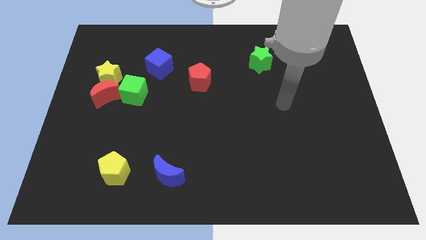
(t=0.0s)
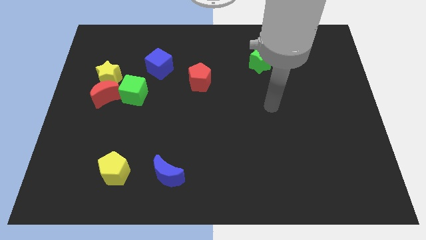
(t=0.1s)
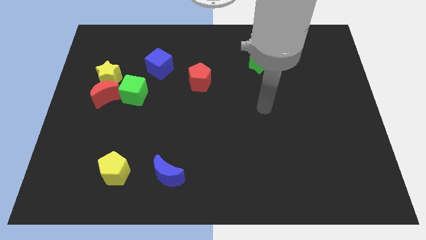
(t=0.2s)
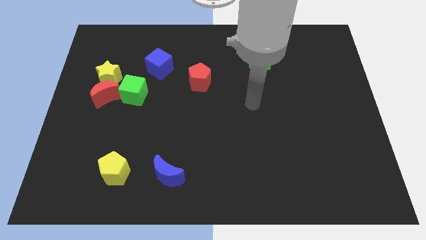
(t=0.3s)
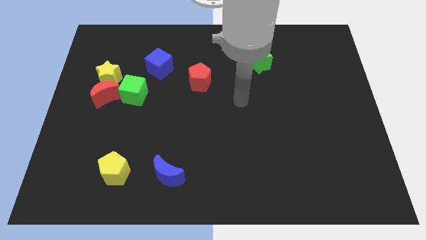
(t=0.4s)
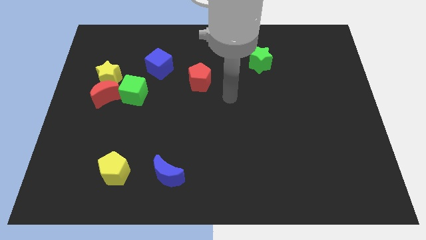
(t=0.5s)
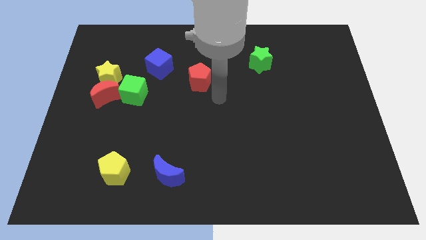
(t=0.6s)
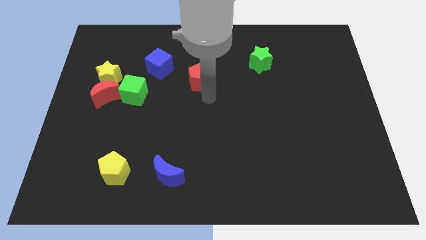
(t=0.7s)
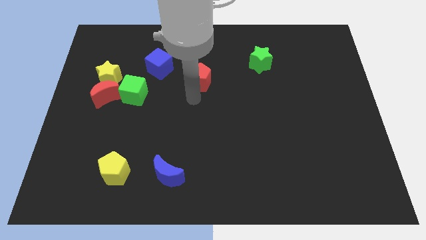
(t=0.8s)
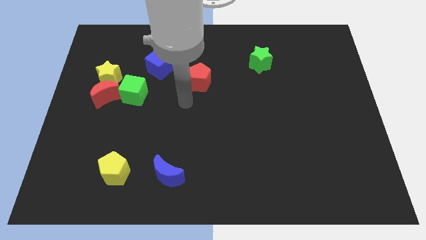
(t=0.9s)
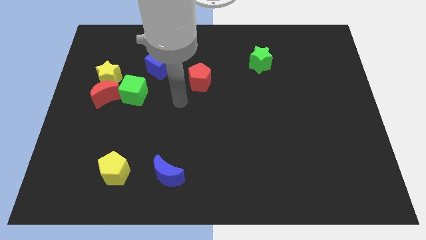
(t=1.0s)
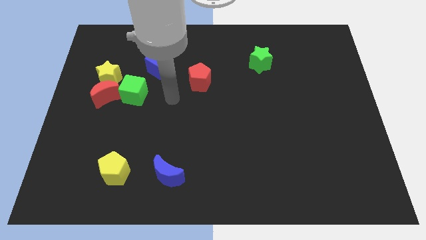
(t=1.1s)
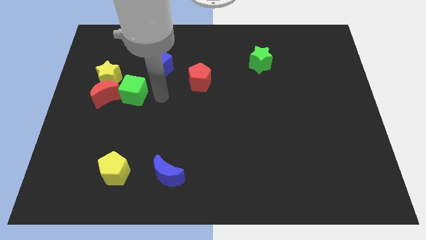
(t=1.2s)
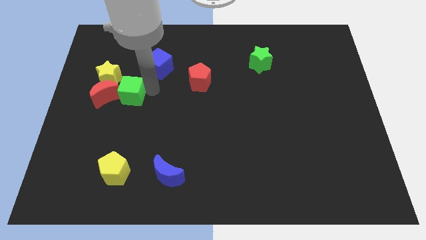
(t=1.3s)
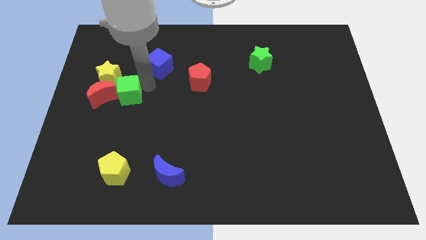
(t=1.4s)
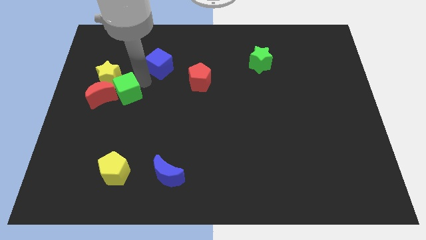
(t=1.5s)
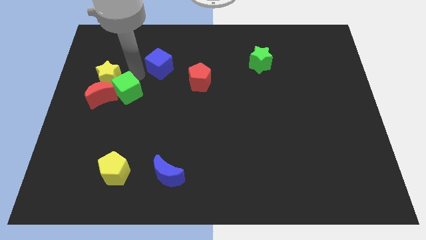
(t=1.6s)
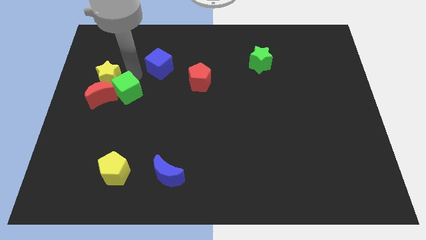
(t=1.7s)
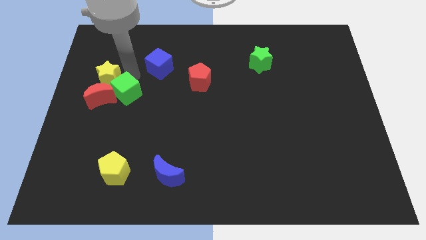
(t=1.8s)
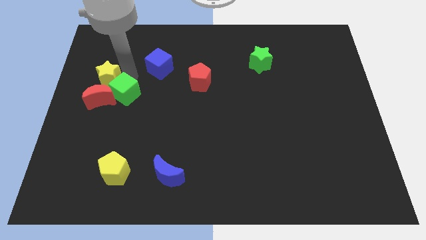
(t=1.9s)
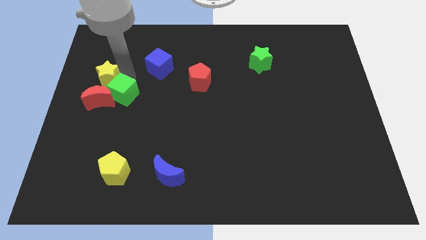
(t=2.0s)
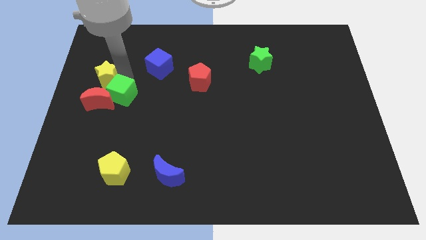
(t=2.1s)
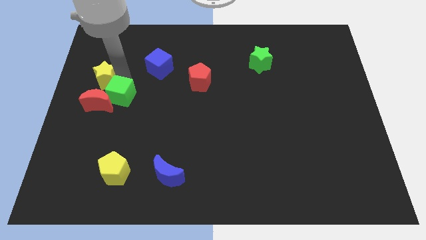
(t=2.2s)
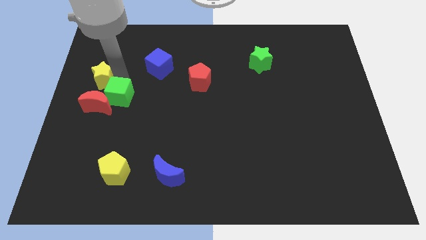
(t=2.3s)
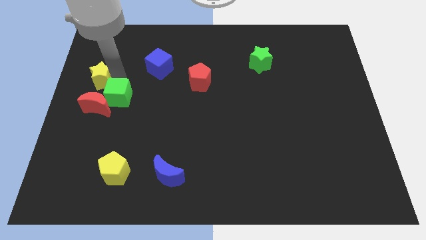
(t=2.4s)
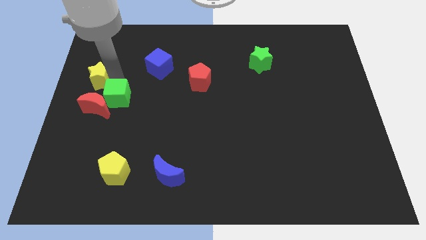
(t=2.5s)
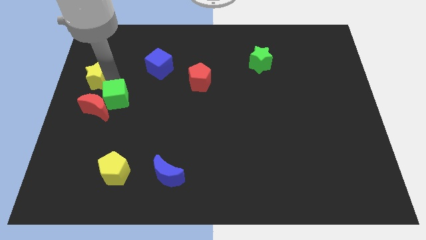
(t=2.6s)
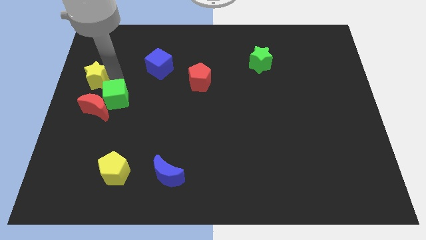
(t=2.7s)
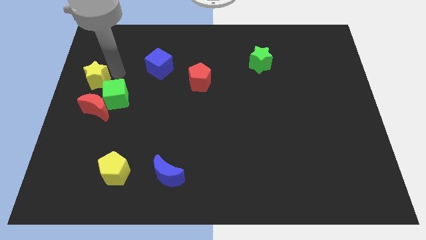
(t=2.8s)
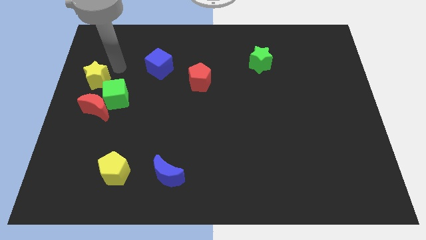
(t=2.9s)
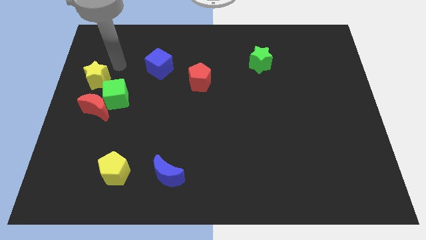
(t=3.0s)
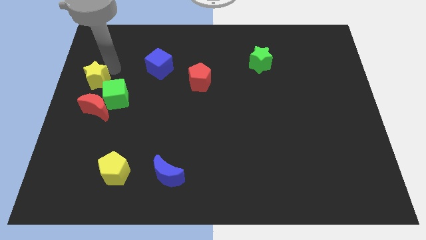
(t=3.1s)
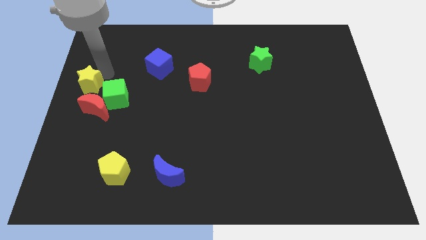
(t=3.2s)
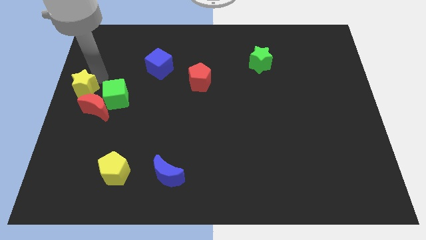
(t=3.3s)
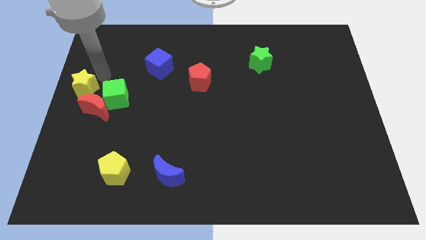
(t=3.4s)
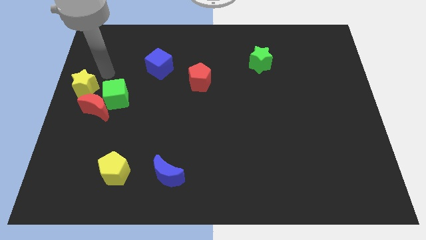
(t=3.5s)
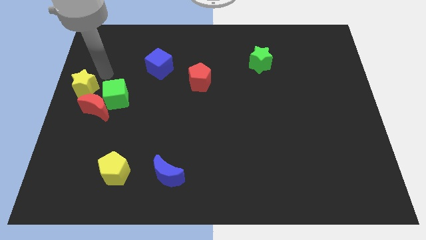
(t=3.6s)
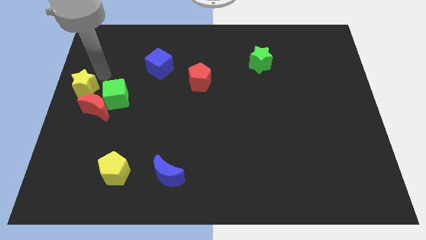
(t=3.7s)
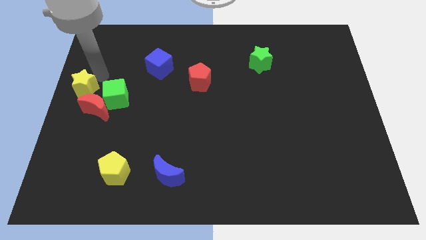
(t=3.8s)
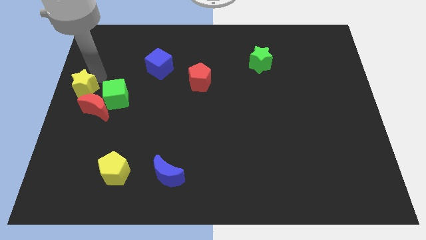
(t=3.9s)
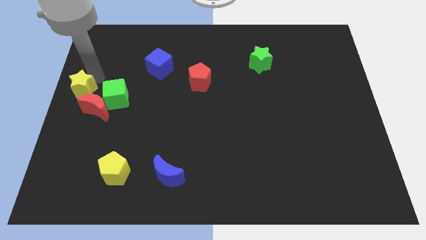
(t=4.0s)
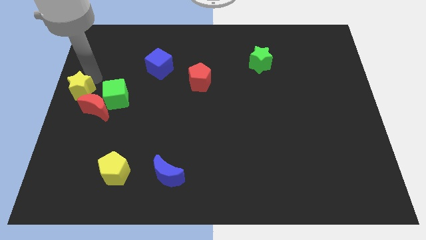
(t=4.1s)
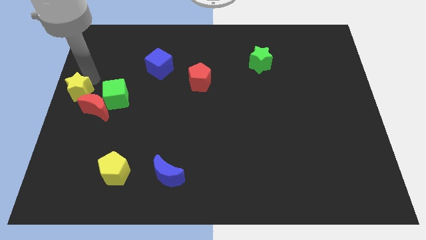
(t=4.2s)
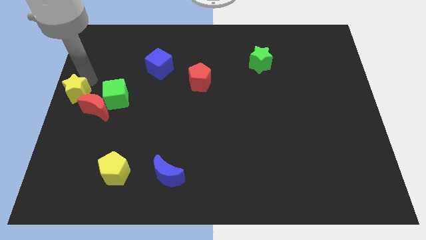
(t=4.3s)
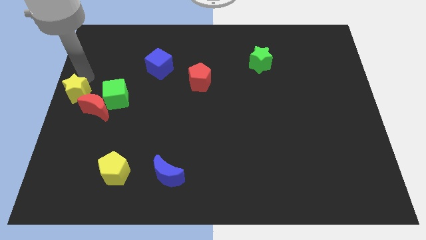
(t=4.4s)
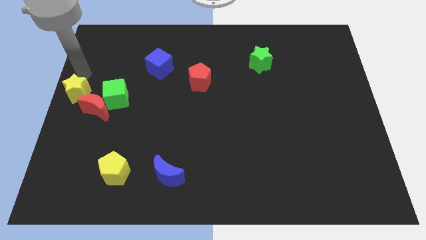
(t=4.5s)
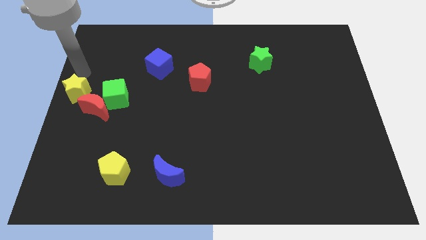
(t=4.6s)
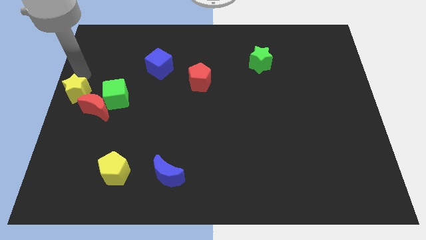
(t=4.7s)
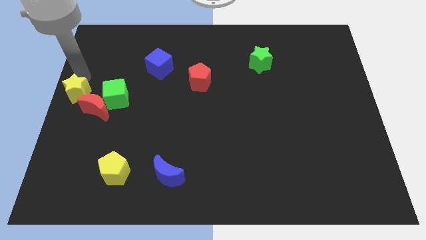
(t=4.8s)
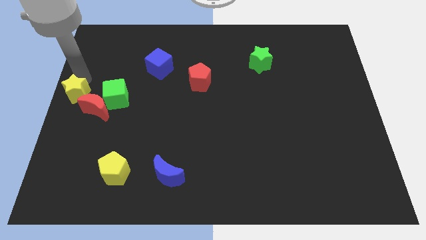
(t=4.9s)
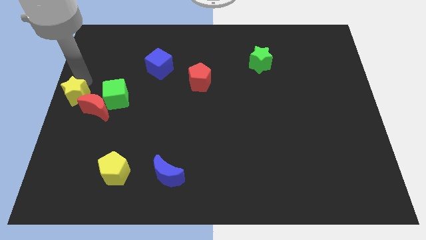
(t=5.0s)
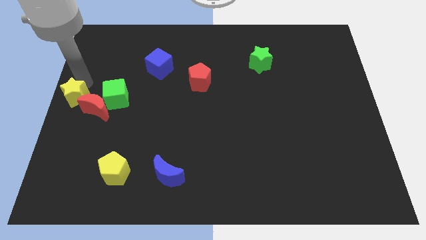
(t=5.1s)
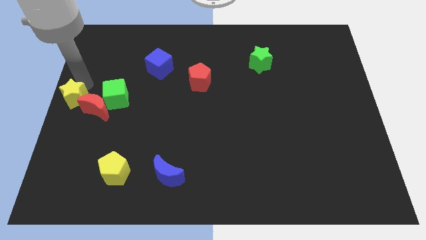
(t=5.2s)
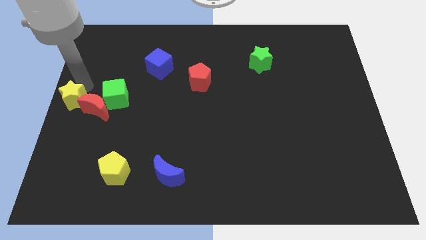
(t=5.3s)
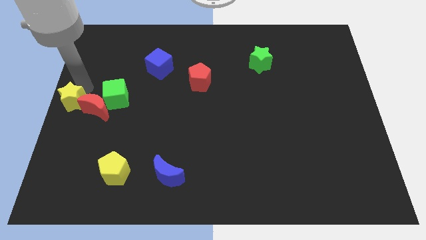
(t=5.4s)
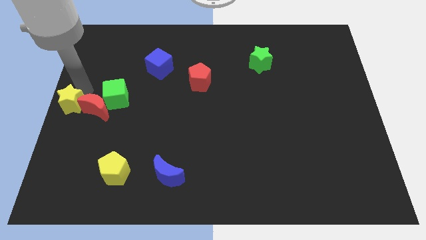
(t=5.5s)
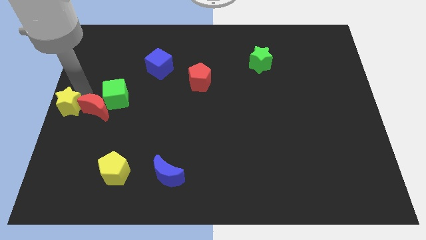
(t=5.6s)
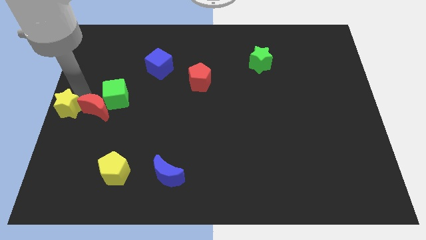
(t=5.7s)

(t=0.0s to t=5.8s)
slide the yellow star down slightly

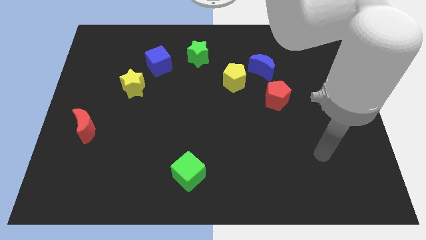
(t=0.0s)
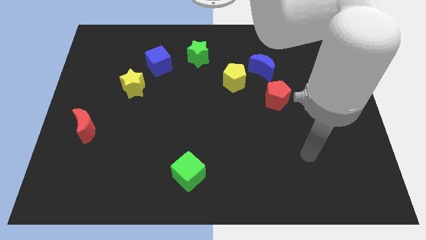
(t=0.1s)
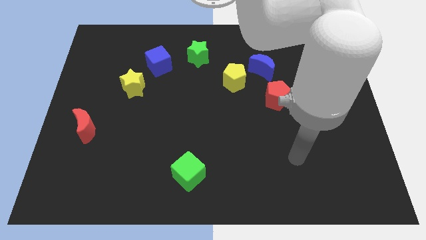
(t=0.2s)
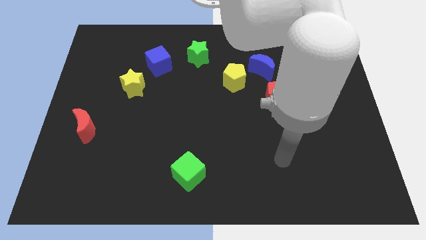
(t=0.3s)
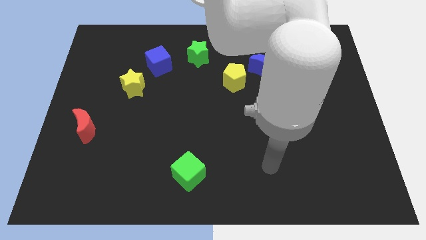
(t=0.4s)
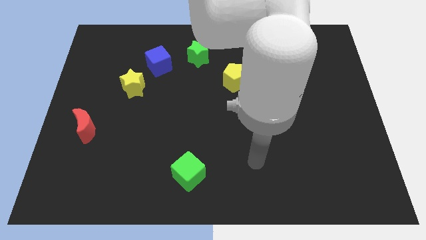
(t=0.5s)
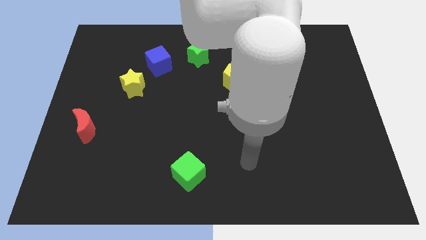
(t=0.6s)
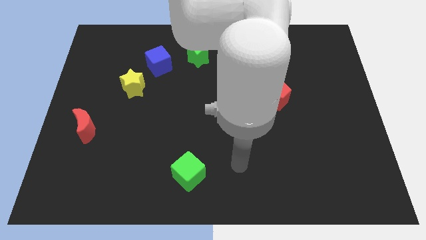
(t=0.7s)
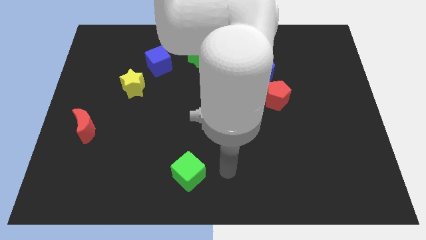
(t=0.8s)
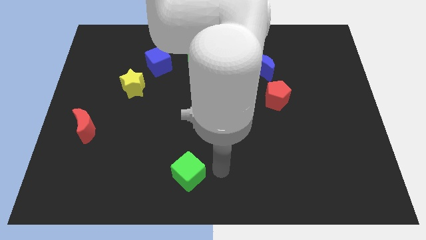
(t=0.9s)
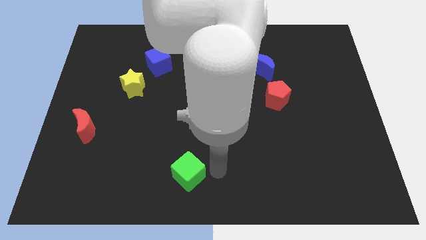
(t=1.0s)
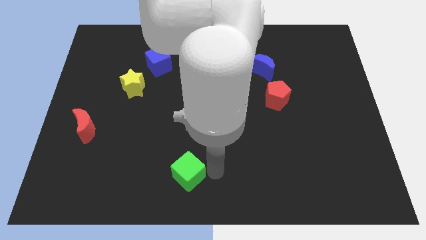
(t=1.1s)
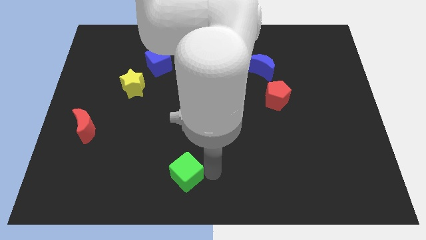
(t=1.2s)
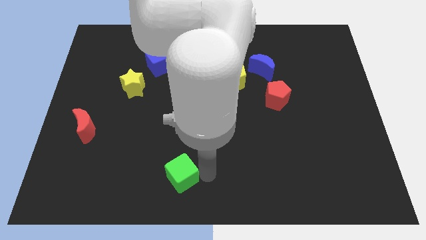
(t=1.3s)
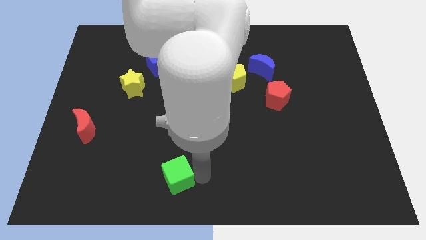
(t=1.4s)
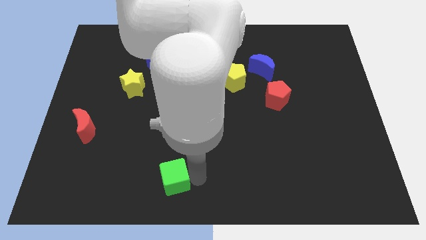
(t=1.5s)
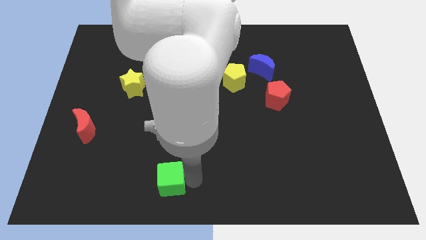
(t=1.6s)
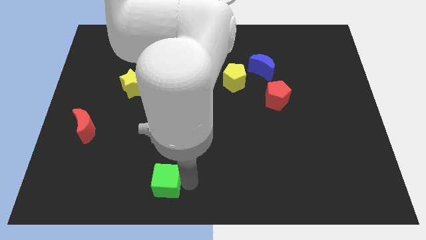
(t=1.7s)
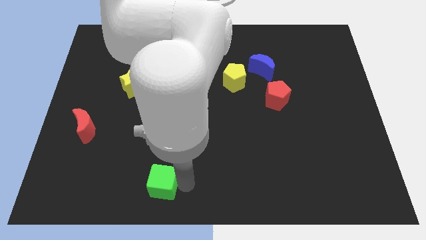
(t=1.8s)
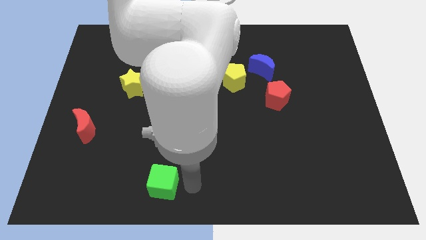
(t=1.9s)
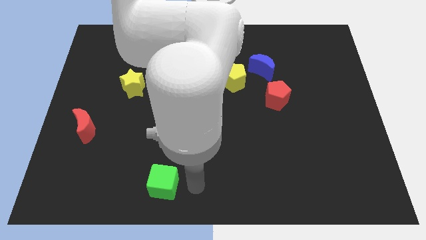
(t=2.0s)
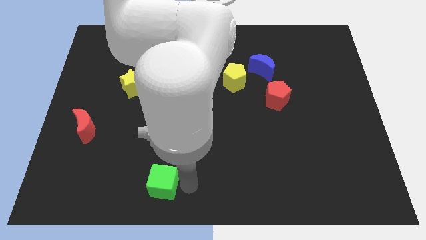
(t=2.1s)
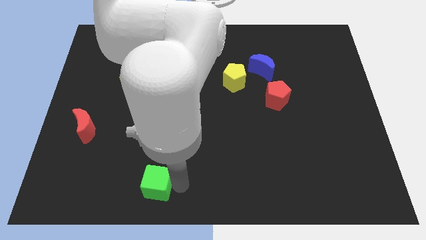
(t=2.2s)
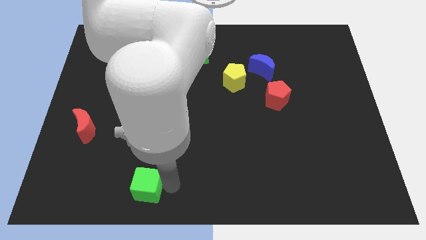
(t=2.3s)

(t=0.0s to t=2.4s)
slide the green cube left a little bit
